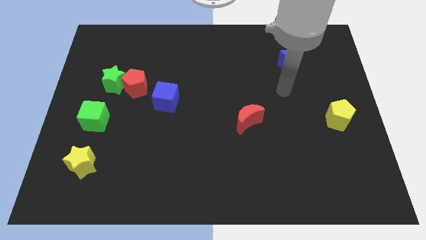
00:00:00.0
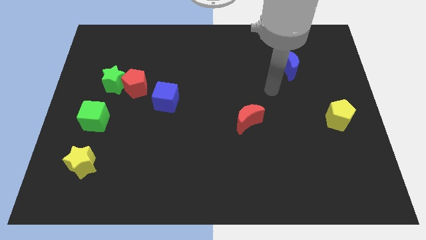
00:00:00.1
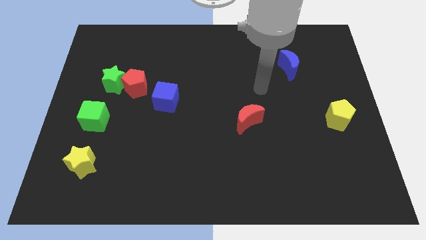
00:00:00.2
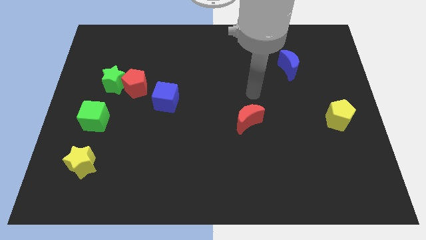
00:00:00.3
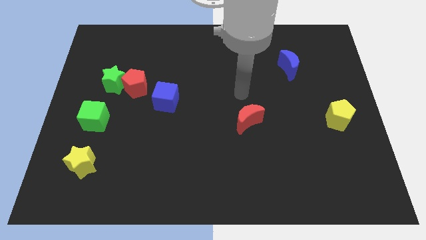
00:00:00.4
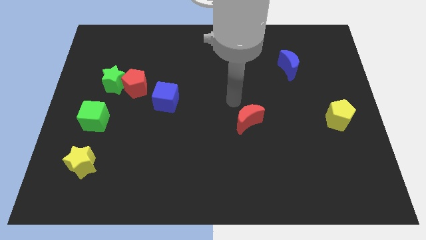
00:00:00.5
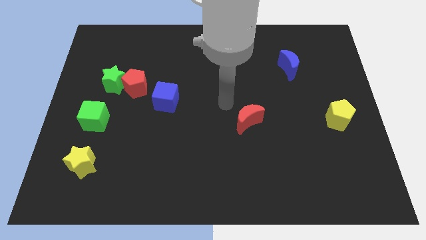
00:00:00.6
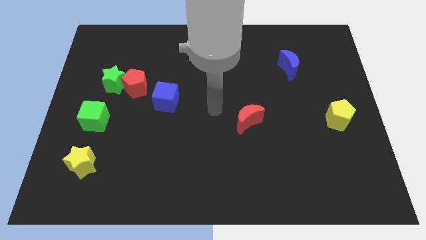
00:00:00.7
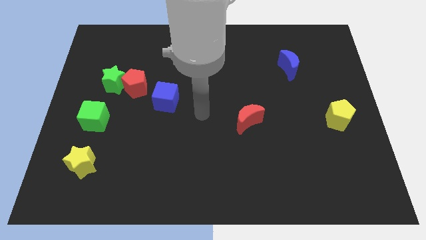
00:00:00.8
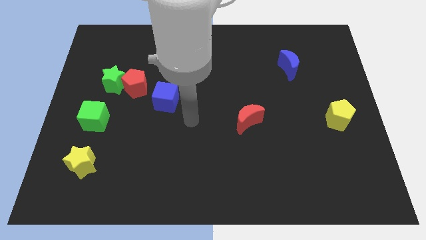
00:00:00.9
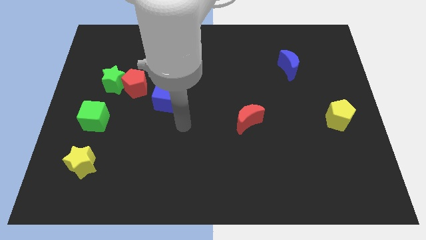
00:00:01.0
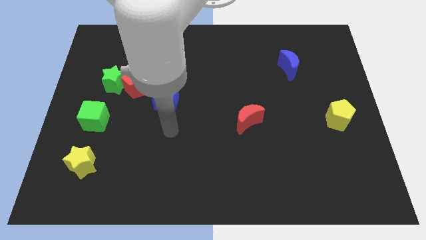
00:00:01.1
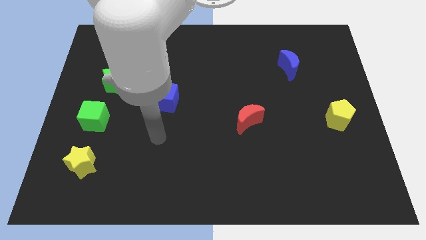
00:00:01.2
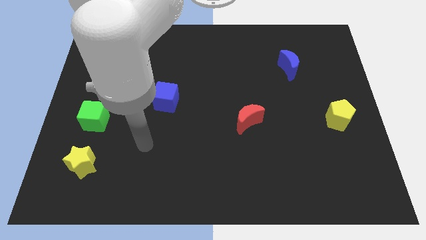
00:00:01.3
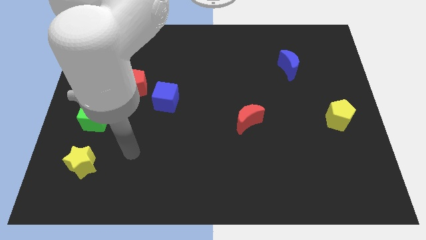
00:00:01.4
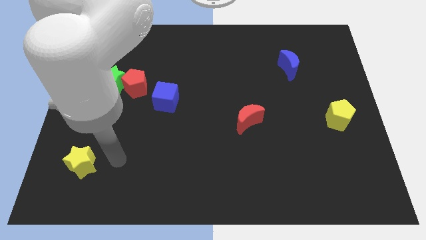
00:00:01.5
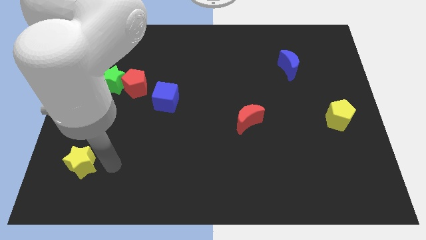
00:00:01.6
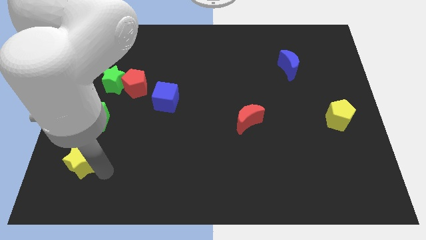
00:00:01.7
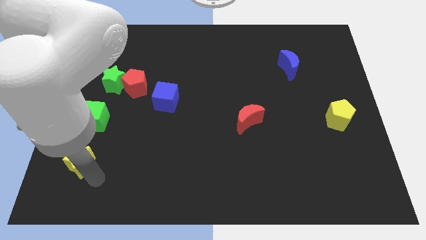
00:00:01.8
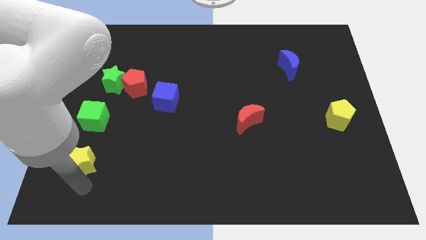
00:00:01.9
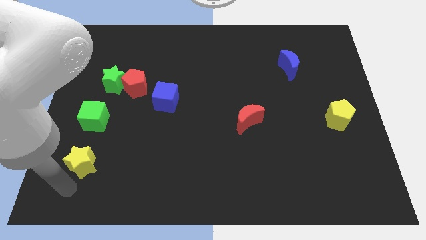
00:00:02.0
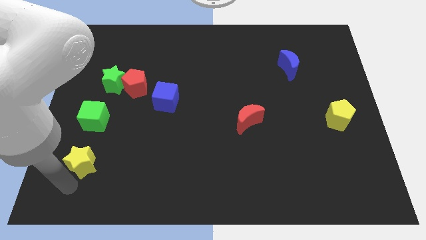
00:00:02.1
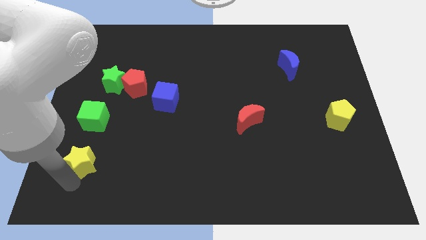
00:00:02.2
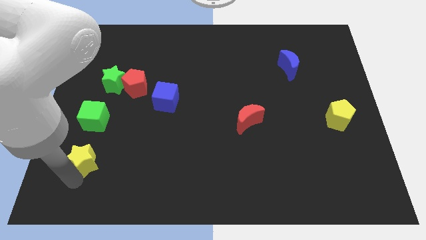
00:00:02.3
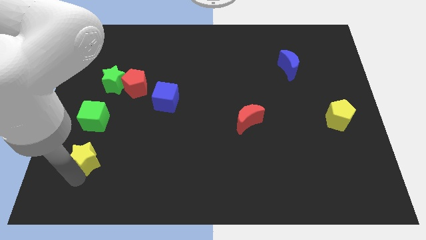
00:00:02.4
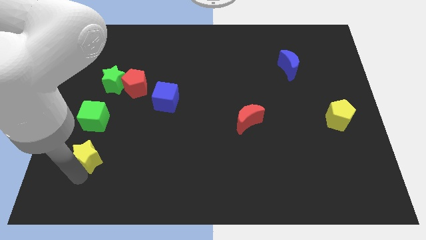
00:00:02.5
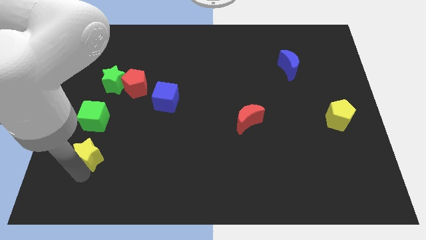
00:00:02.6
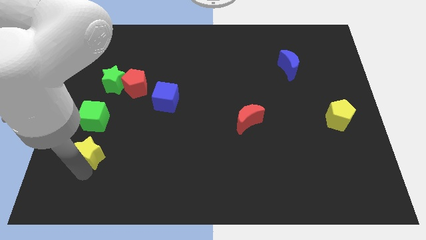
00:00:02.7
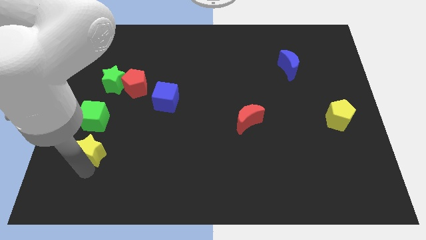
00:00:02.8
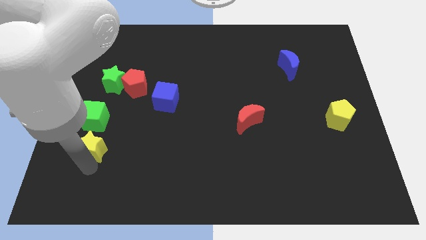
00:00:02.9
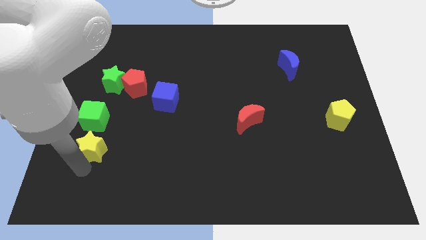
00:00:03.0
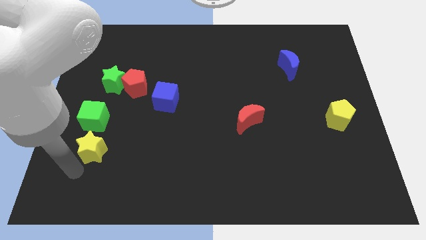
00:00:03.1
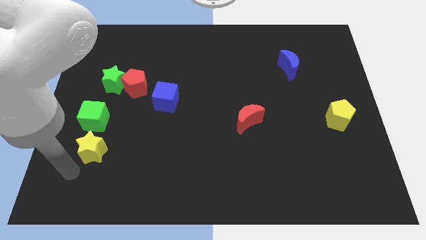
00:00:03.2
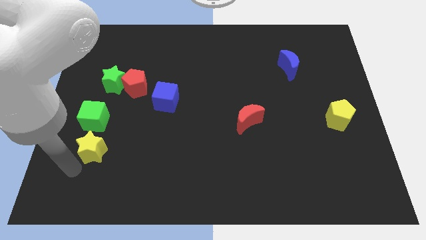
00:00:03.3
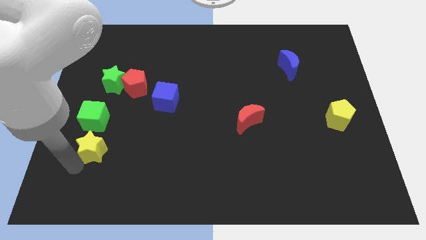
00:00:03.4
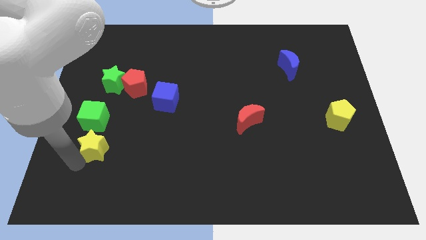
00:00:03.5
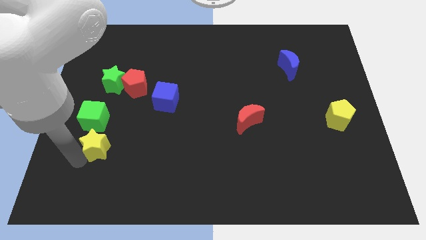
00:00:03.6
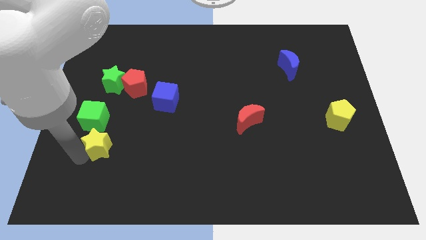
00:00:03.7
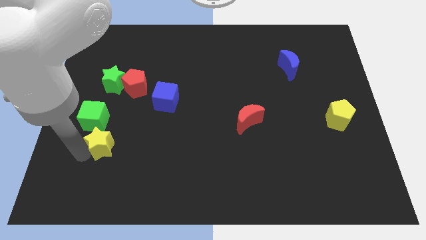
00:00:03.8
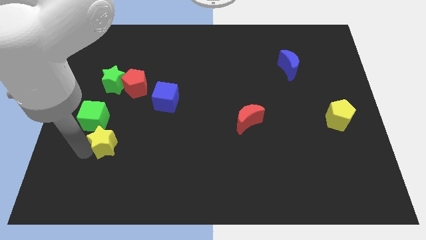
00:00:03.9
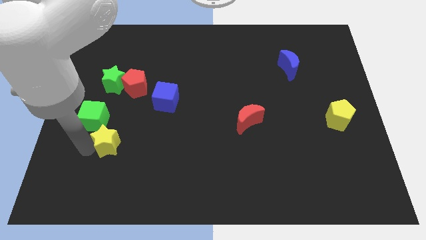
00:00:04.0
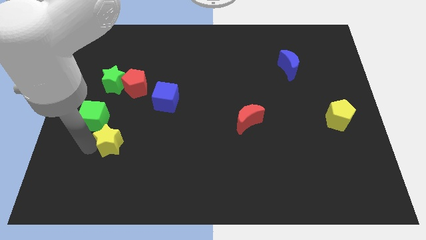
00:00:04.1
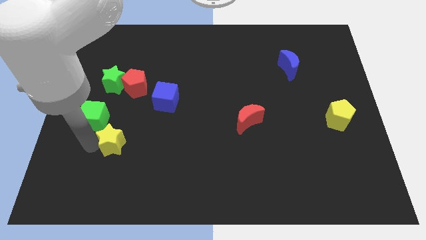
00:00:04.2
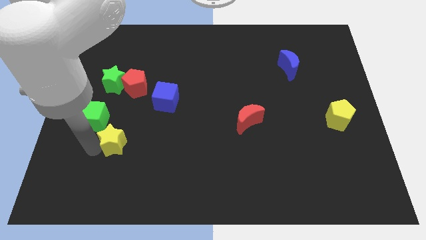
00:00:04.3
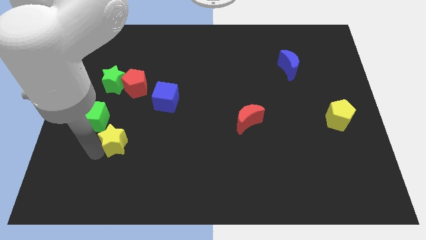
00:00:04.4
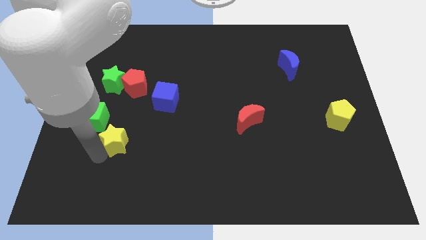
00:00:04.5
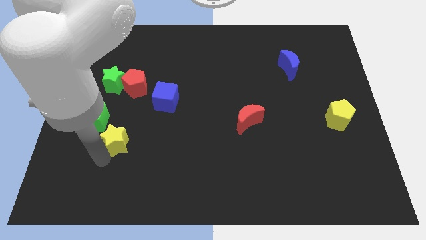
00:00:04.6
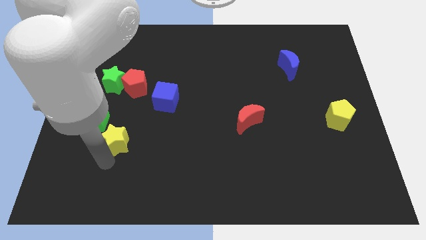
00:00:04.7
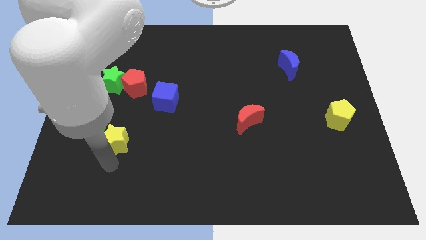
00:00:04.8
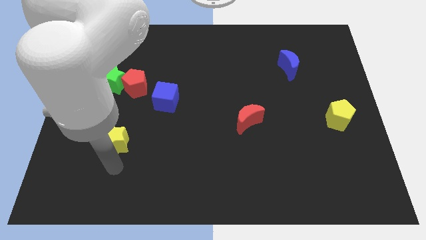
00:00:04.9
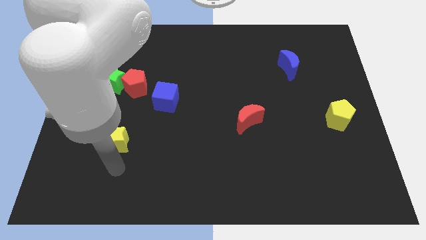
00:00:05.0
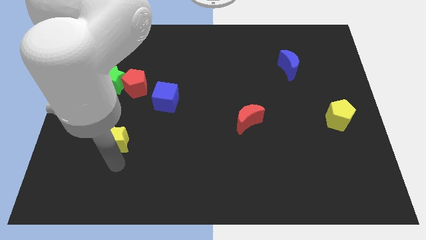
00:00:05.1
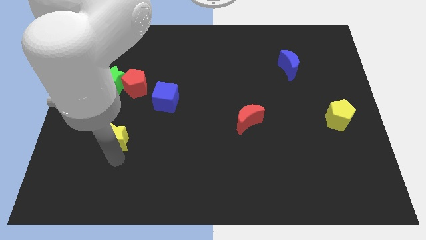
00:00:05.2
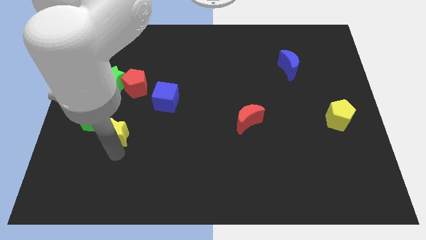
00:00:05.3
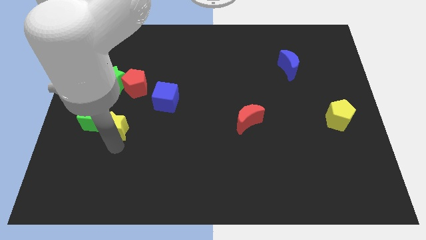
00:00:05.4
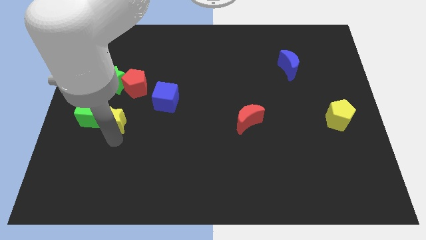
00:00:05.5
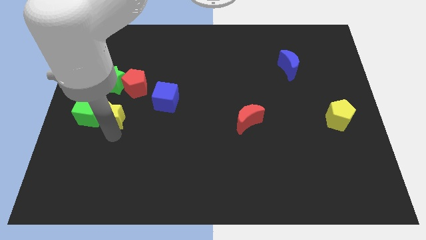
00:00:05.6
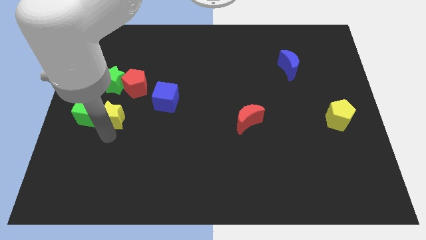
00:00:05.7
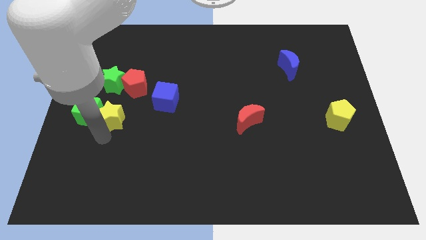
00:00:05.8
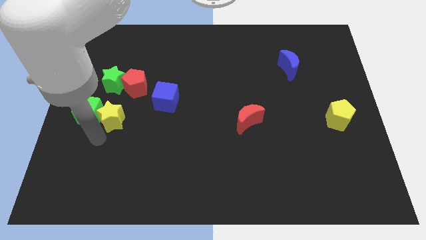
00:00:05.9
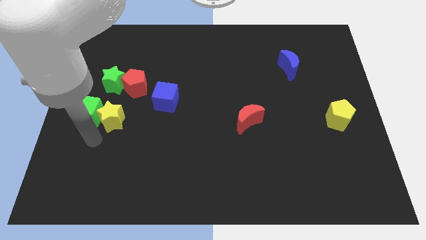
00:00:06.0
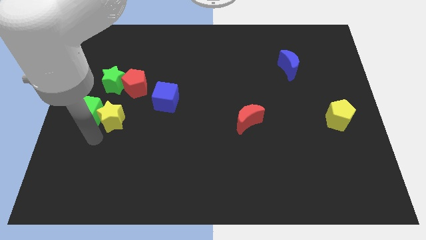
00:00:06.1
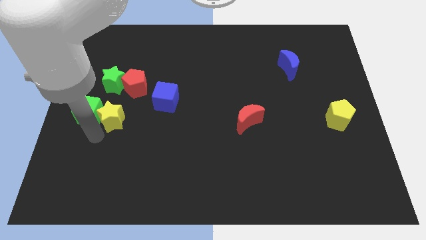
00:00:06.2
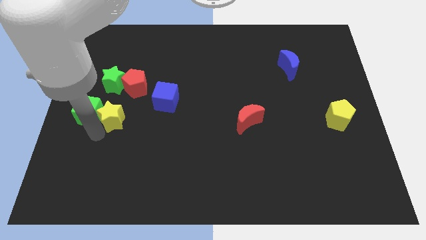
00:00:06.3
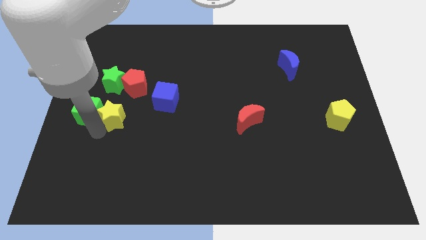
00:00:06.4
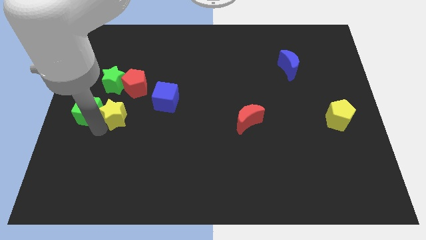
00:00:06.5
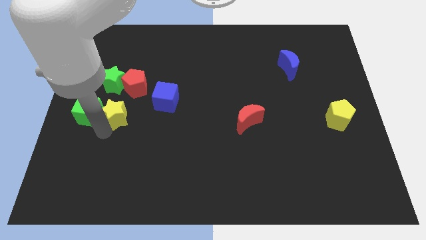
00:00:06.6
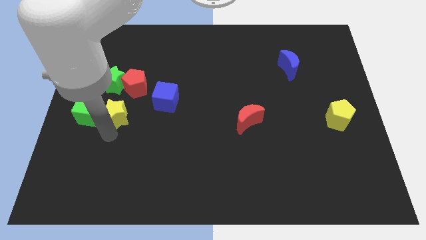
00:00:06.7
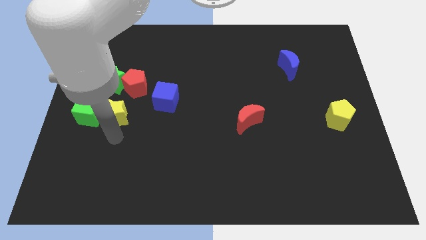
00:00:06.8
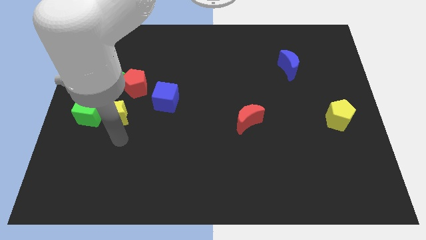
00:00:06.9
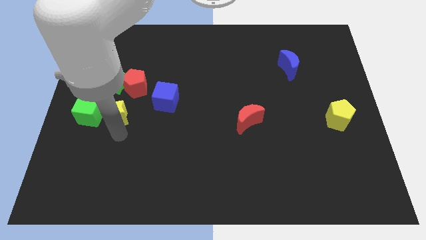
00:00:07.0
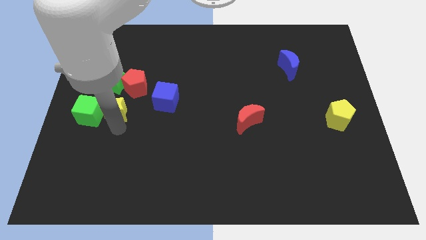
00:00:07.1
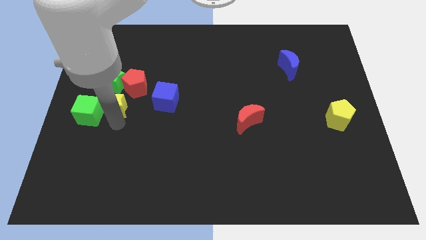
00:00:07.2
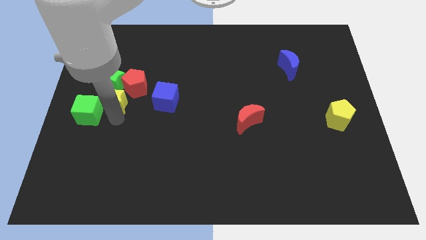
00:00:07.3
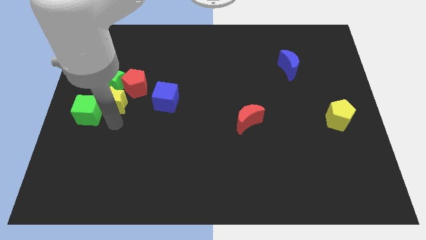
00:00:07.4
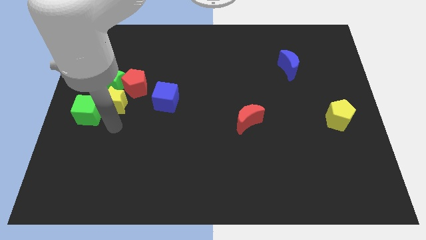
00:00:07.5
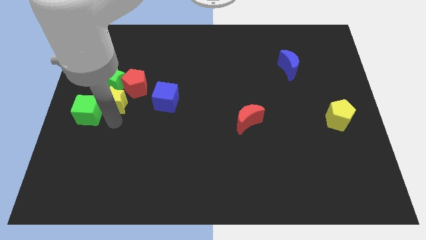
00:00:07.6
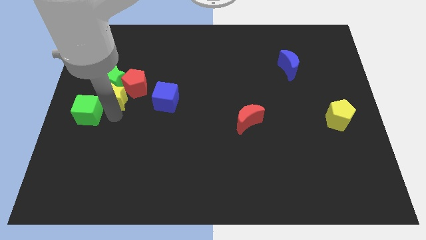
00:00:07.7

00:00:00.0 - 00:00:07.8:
push the yellow star next to the green star
